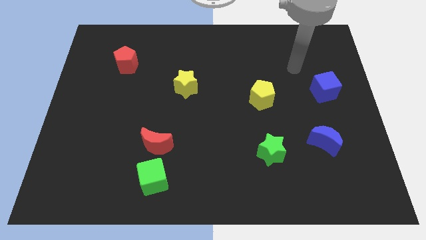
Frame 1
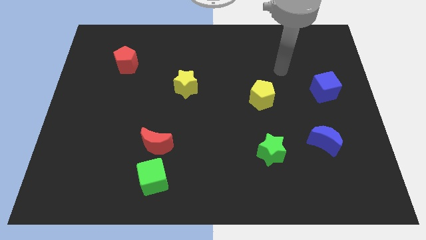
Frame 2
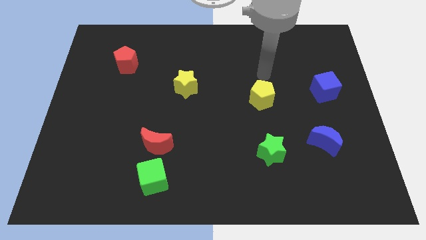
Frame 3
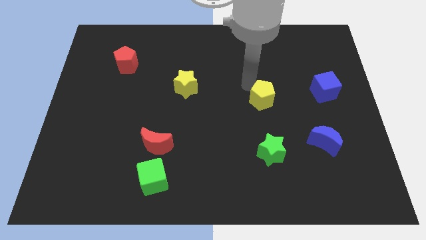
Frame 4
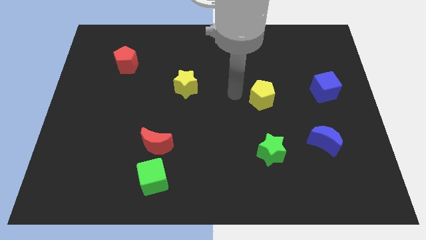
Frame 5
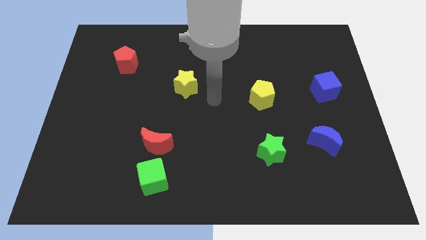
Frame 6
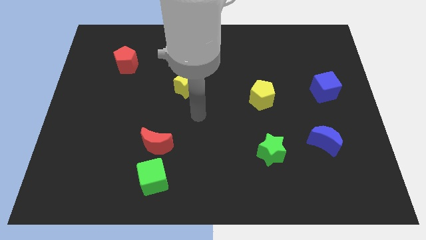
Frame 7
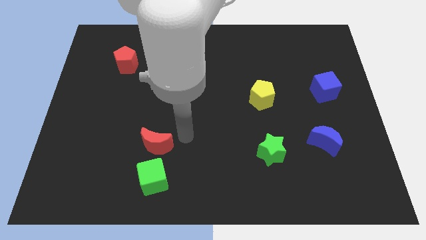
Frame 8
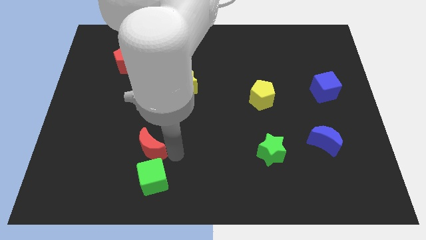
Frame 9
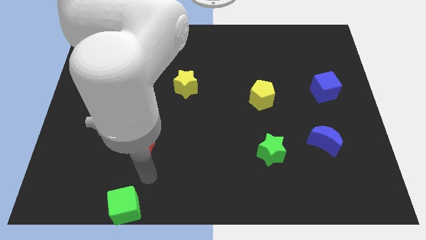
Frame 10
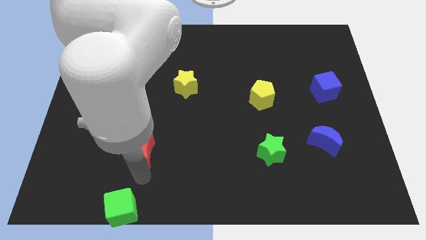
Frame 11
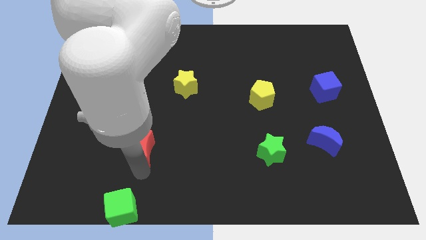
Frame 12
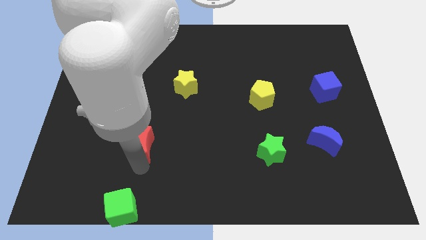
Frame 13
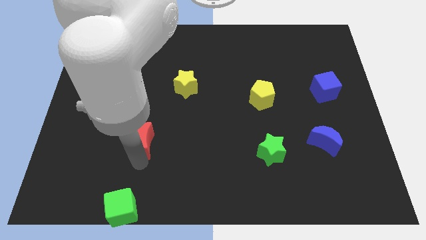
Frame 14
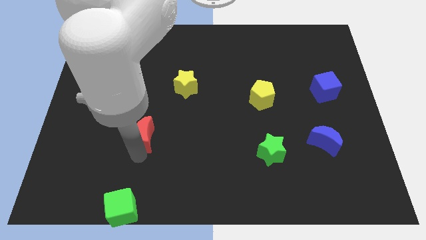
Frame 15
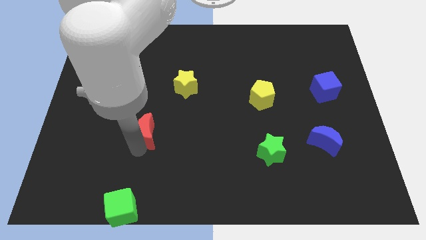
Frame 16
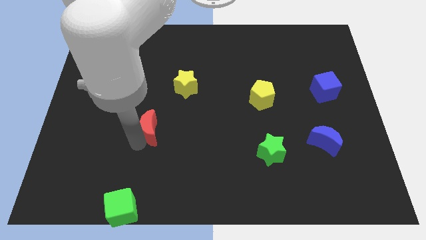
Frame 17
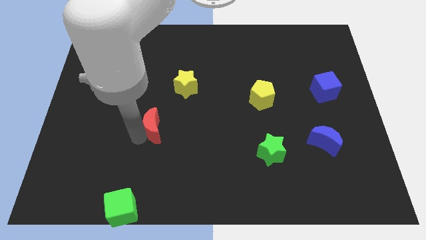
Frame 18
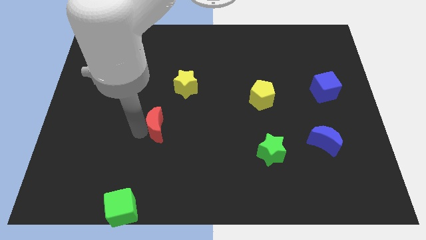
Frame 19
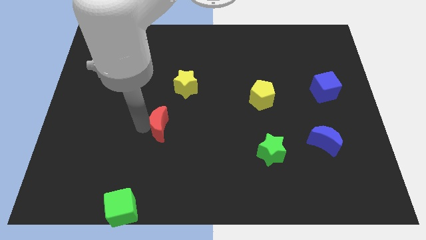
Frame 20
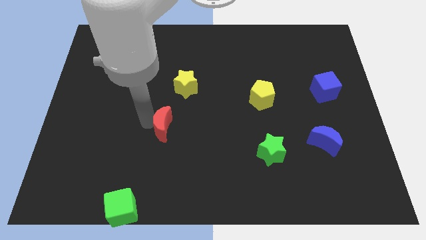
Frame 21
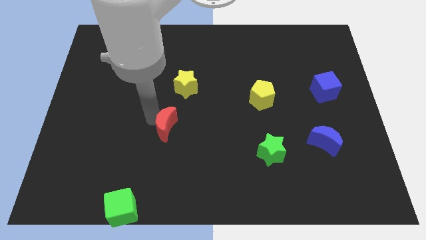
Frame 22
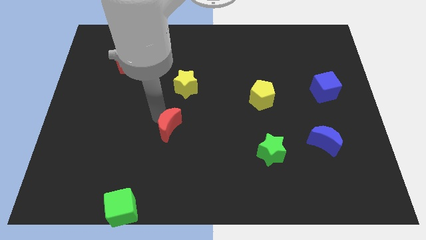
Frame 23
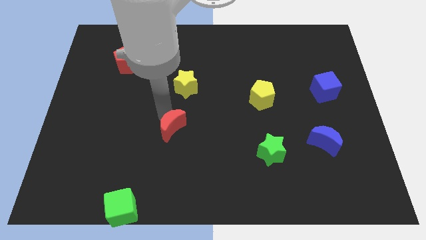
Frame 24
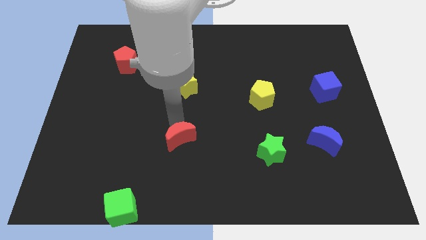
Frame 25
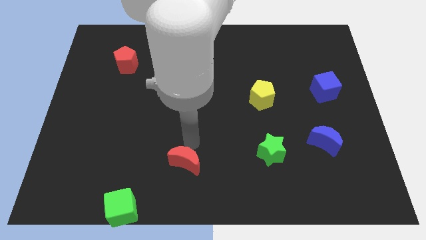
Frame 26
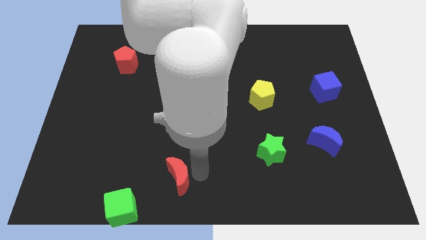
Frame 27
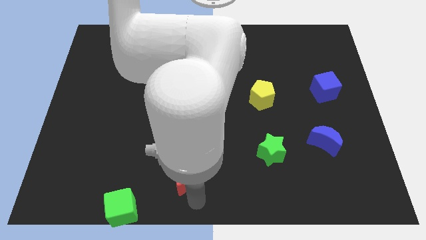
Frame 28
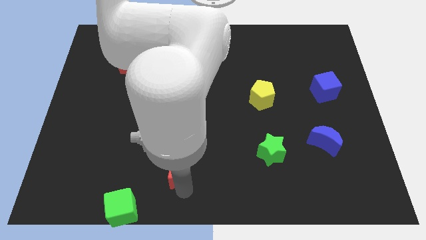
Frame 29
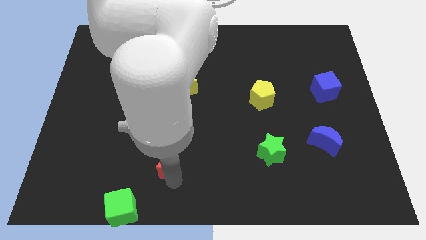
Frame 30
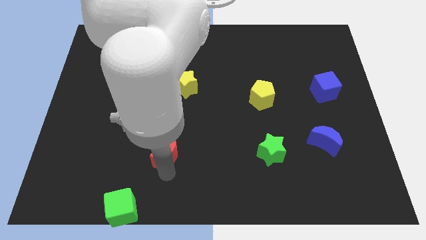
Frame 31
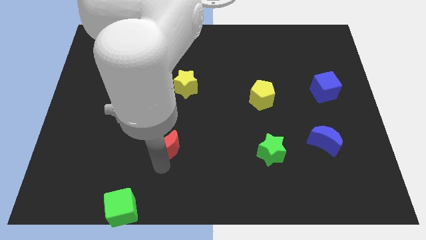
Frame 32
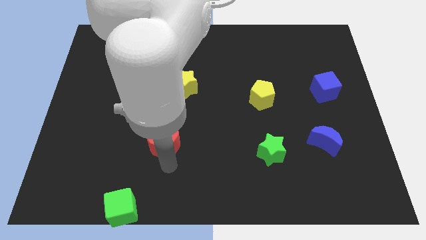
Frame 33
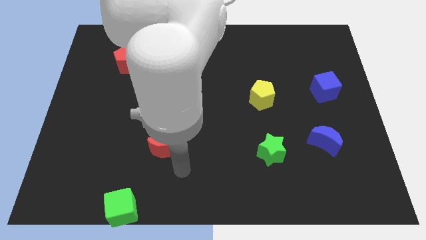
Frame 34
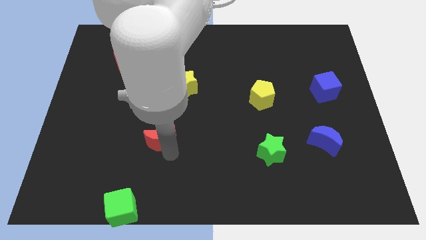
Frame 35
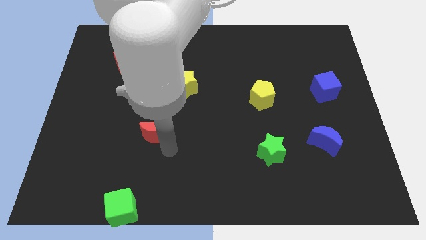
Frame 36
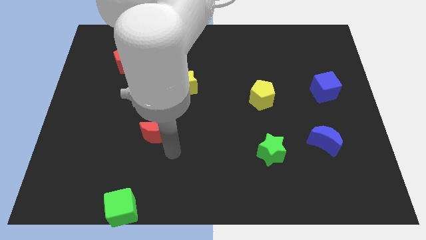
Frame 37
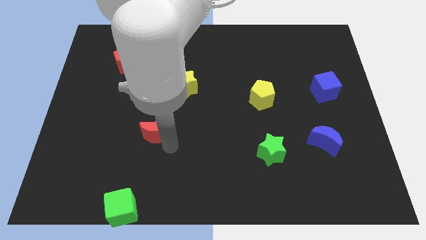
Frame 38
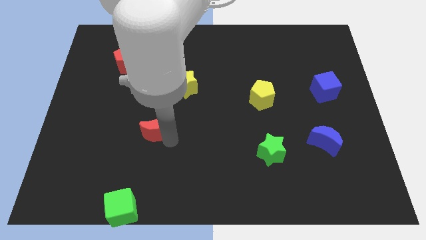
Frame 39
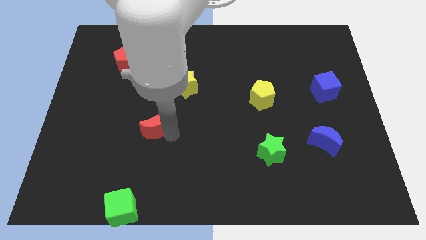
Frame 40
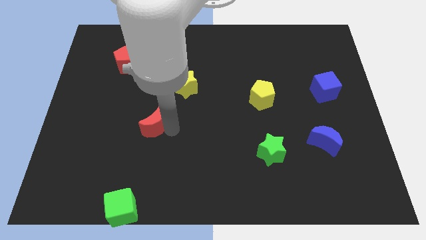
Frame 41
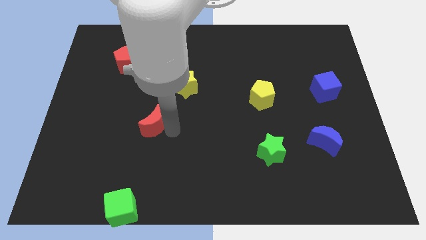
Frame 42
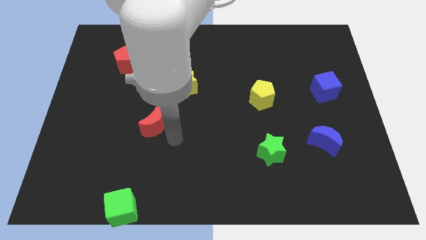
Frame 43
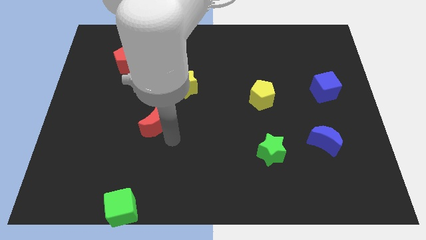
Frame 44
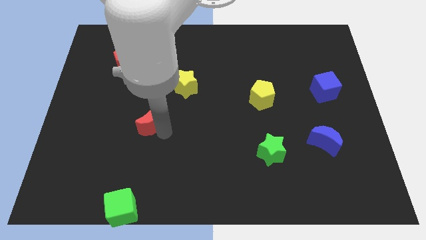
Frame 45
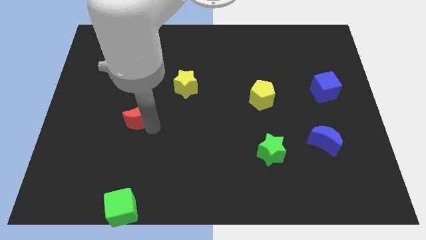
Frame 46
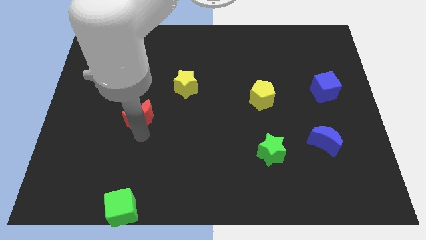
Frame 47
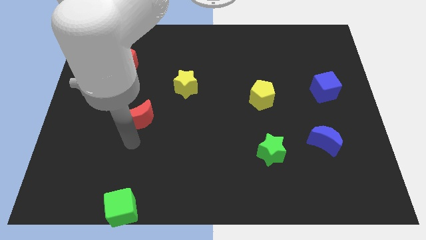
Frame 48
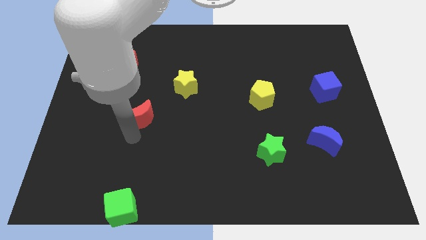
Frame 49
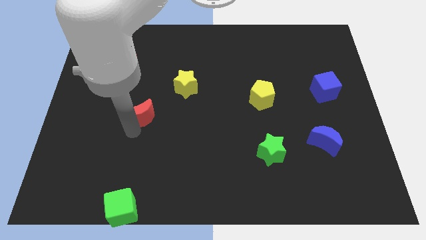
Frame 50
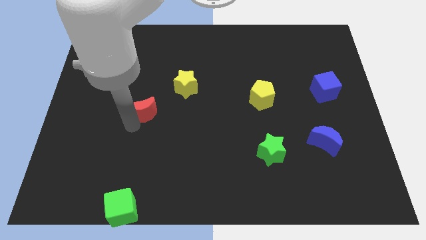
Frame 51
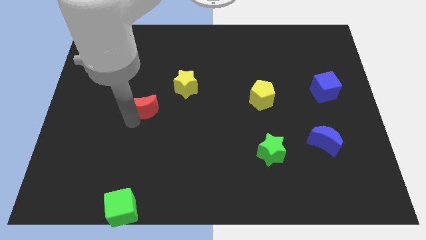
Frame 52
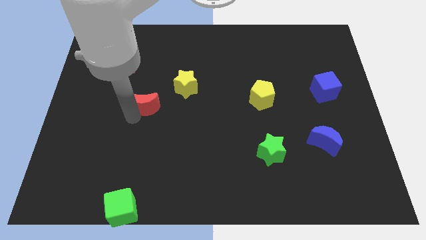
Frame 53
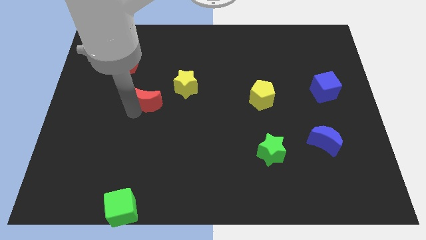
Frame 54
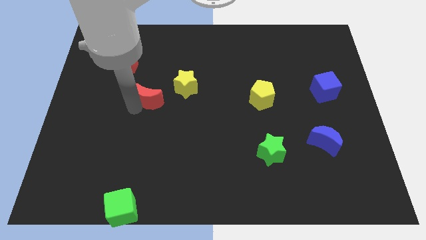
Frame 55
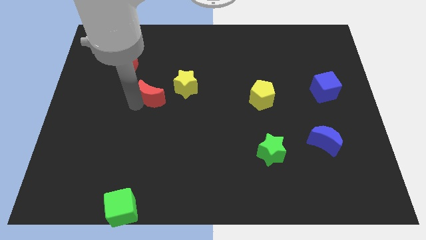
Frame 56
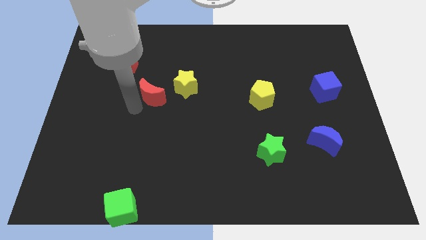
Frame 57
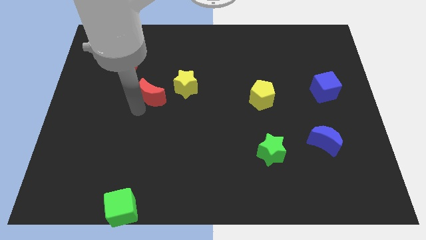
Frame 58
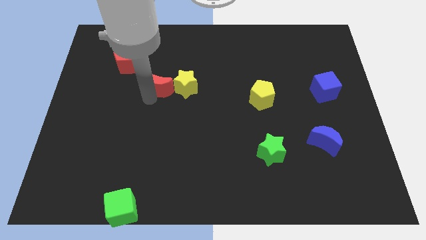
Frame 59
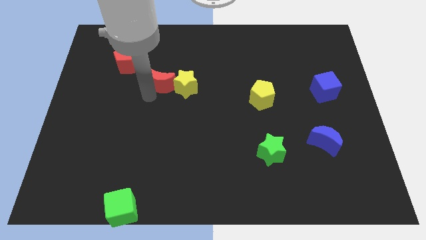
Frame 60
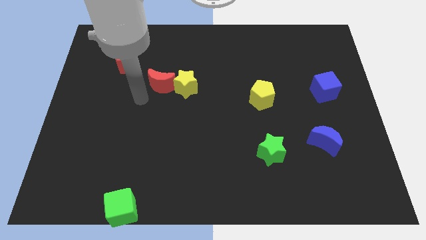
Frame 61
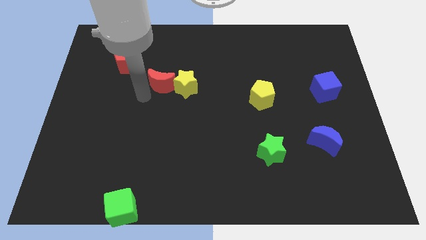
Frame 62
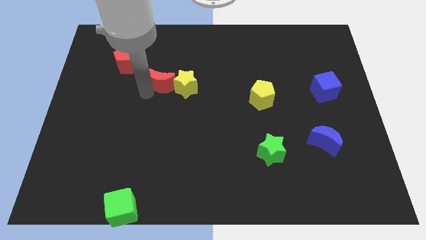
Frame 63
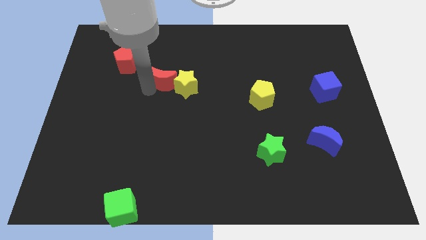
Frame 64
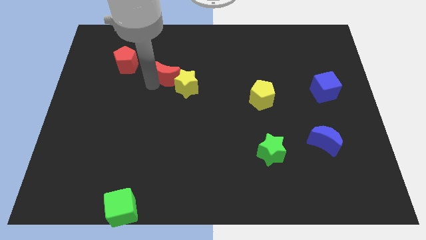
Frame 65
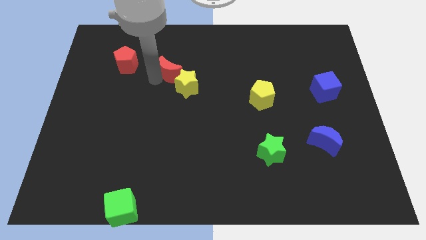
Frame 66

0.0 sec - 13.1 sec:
push the red moon above the yellow star

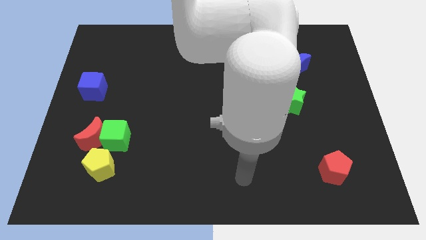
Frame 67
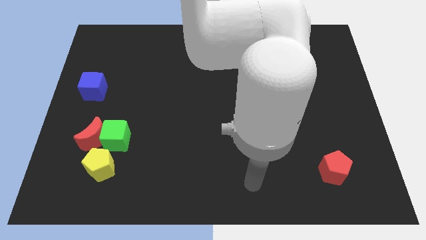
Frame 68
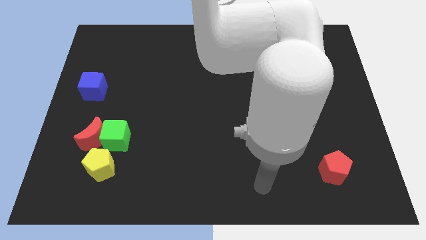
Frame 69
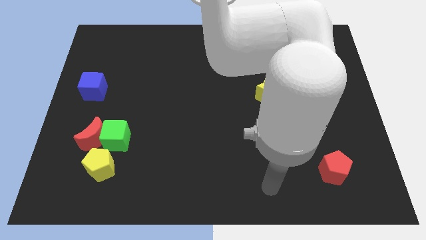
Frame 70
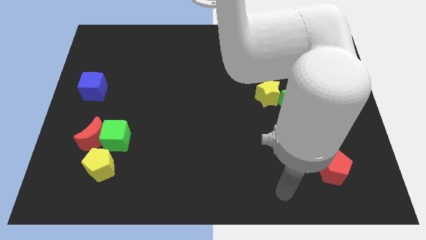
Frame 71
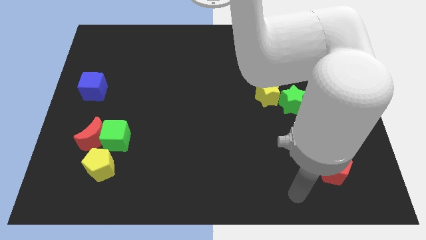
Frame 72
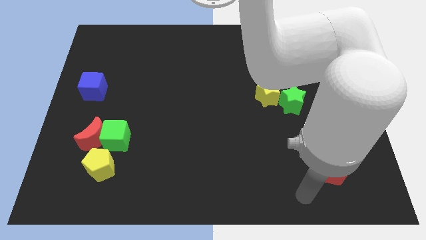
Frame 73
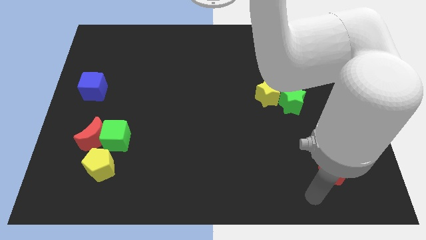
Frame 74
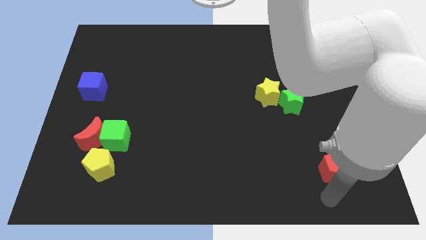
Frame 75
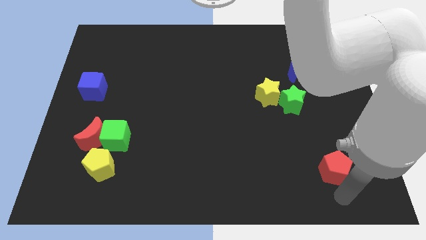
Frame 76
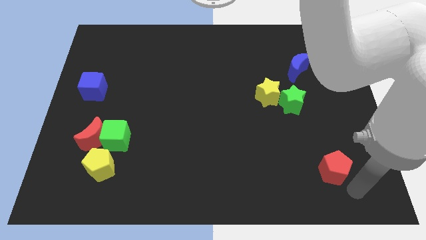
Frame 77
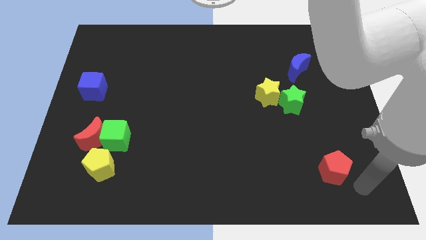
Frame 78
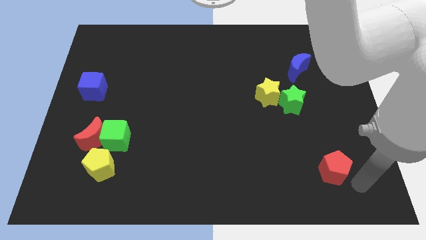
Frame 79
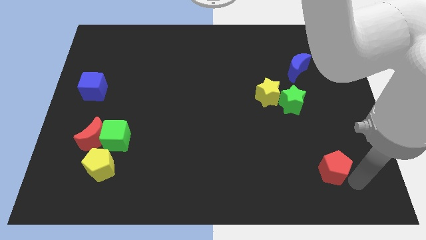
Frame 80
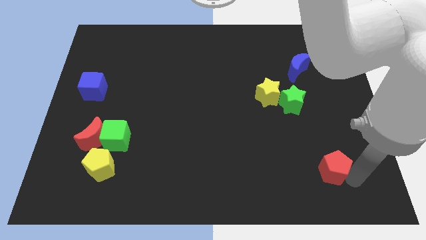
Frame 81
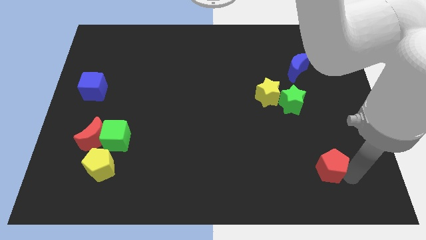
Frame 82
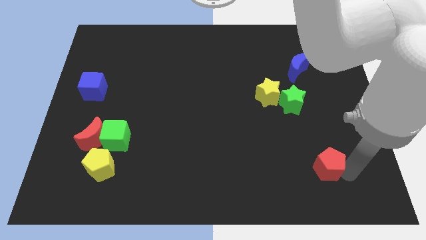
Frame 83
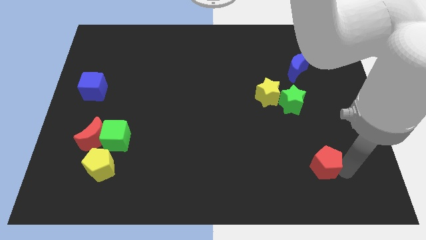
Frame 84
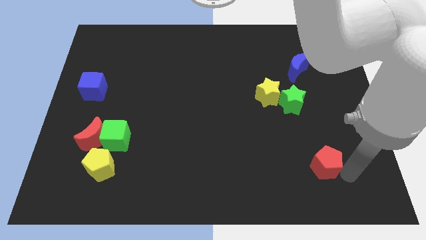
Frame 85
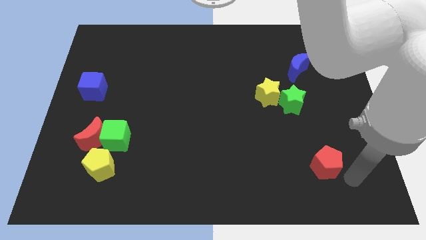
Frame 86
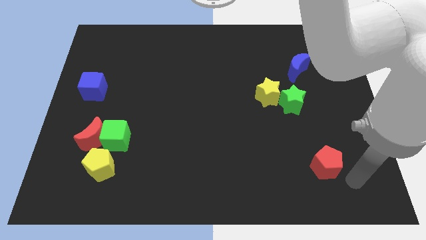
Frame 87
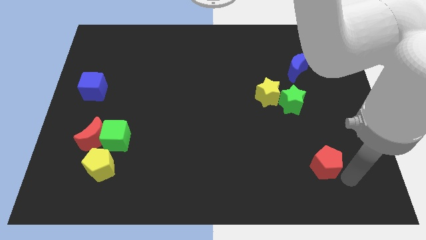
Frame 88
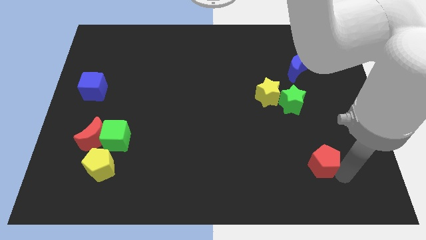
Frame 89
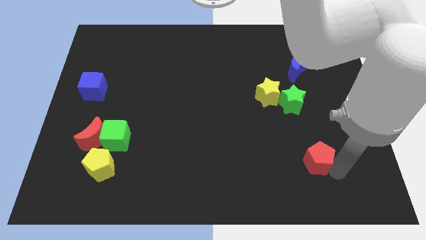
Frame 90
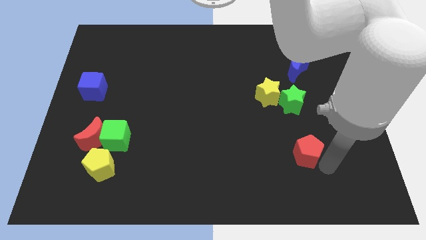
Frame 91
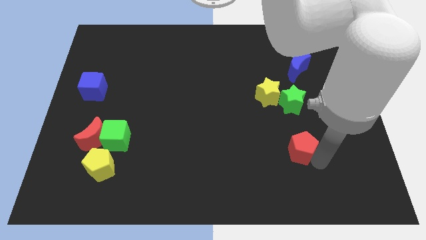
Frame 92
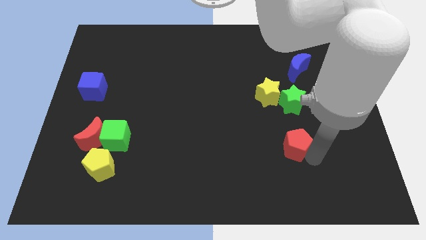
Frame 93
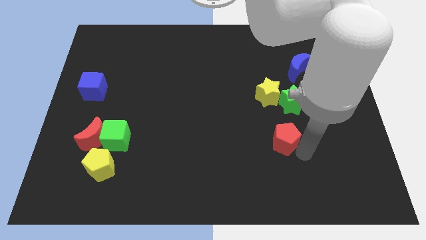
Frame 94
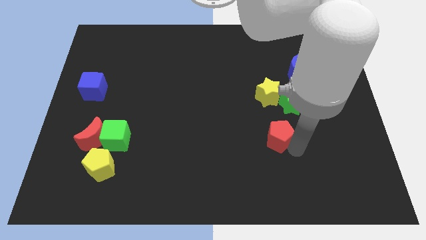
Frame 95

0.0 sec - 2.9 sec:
slide the red pentagon to the bottom left of the green star
